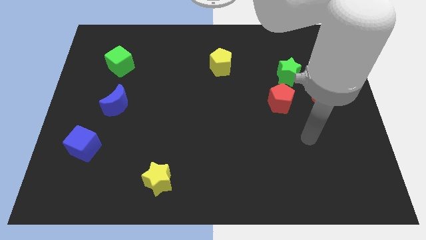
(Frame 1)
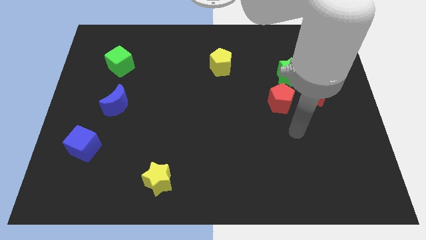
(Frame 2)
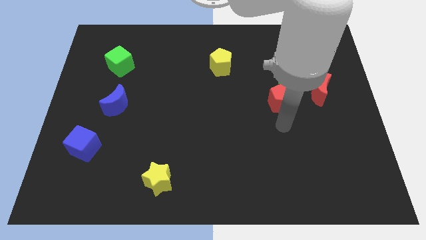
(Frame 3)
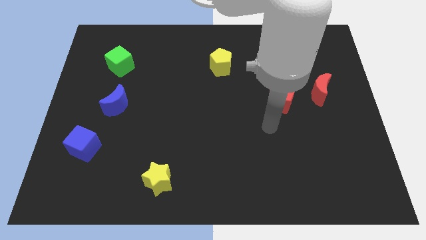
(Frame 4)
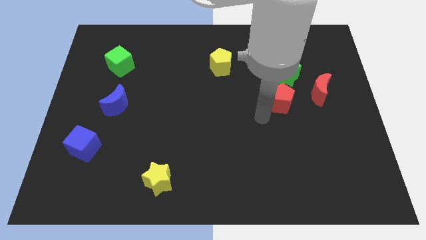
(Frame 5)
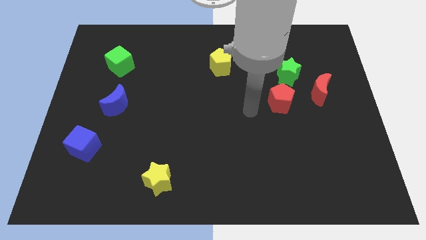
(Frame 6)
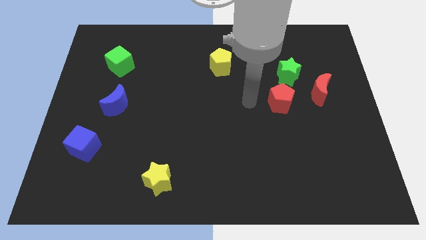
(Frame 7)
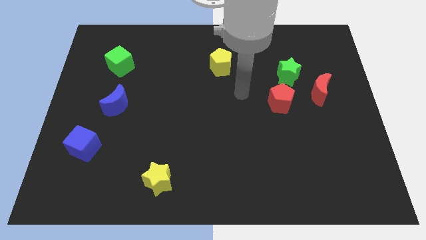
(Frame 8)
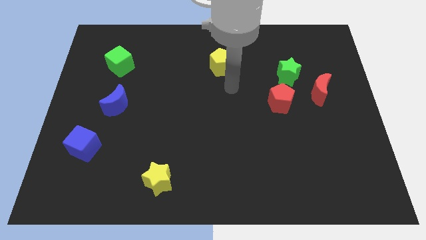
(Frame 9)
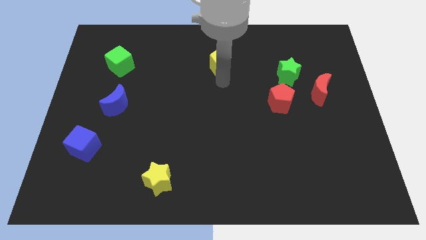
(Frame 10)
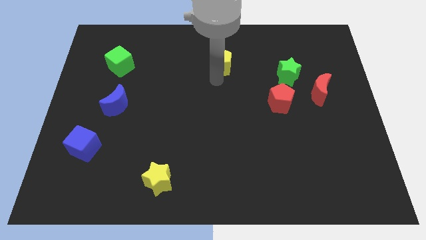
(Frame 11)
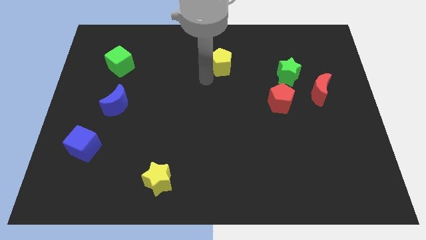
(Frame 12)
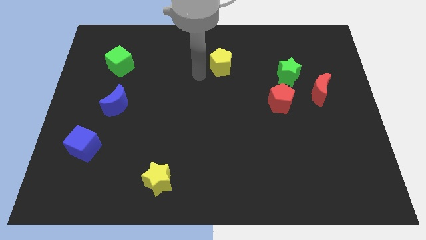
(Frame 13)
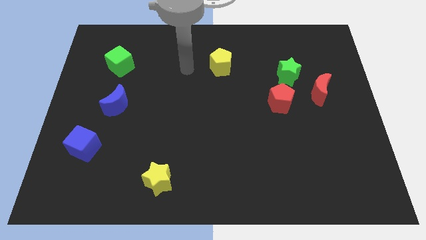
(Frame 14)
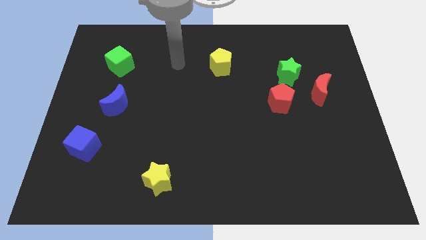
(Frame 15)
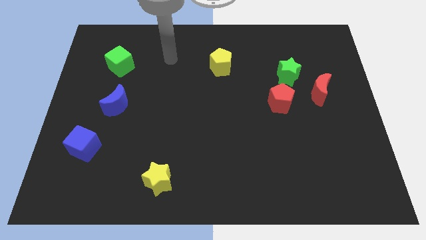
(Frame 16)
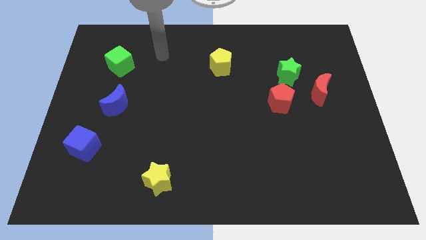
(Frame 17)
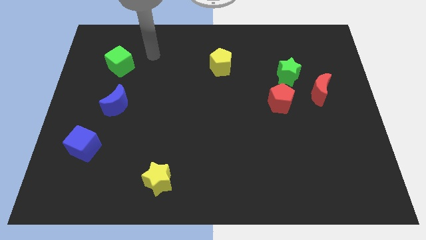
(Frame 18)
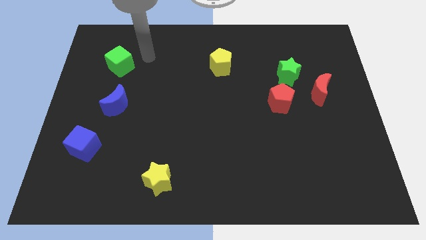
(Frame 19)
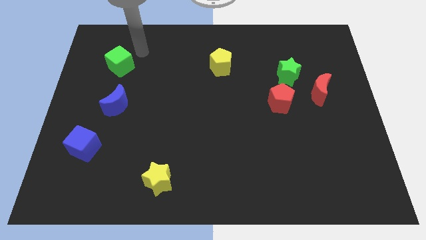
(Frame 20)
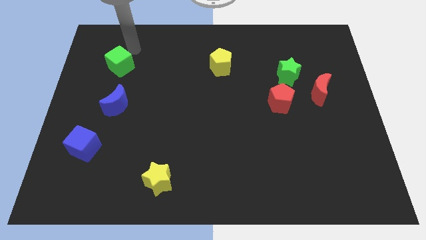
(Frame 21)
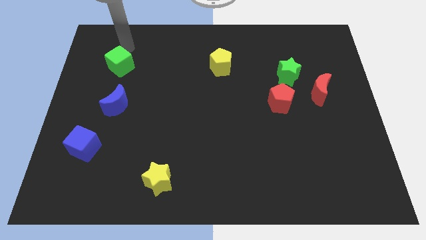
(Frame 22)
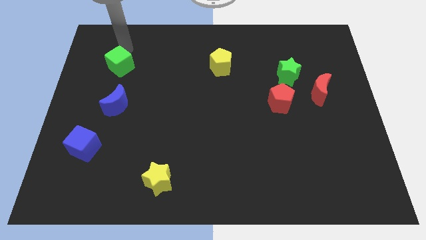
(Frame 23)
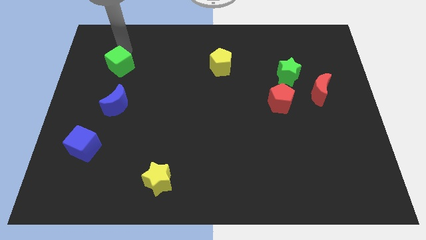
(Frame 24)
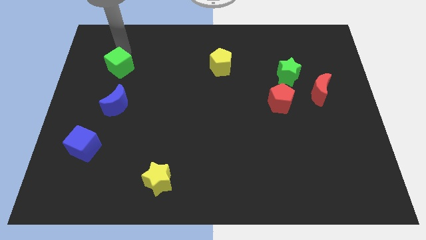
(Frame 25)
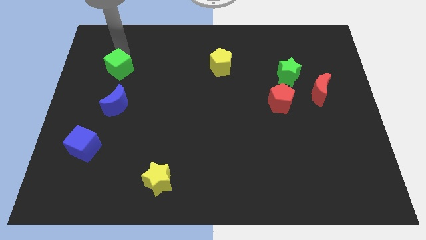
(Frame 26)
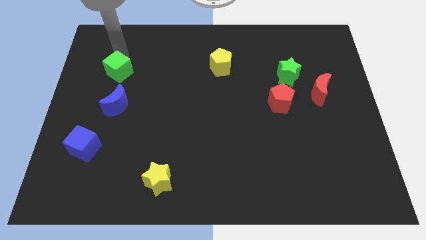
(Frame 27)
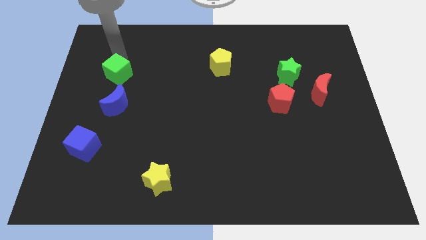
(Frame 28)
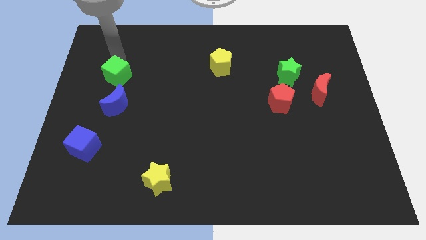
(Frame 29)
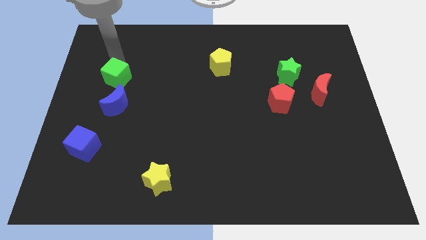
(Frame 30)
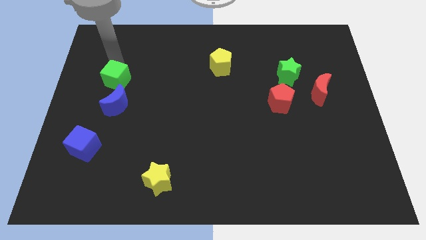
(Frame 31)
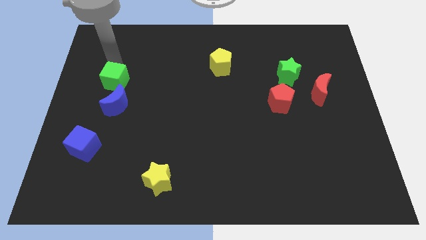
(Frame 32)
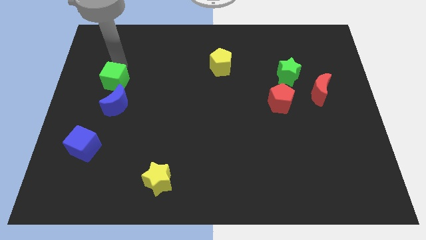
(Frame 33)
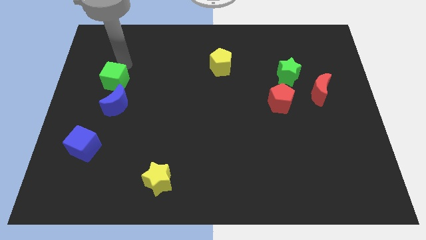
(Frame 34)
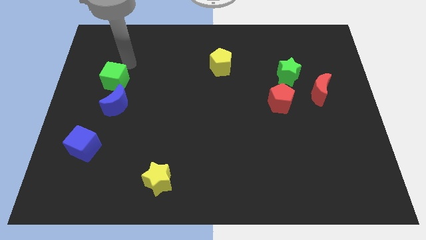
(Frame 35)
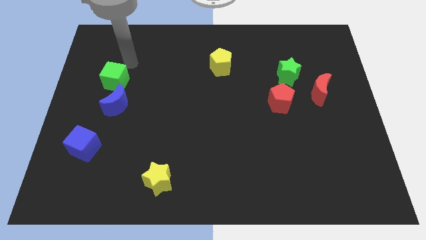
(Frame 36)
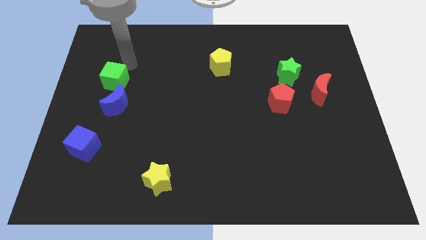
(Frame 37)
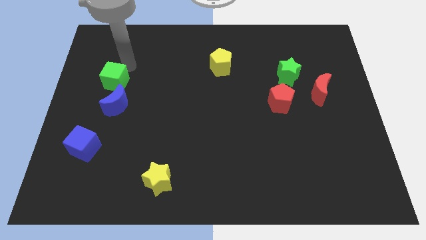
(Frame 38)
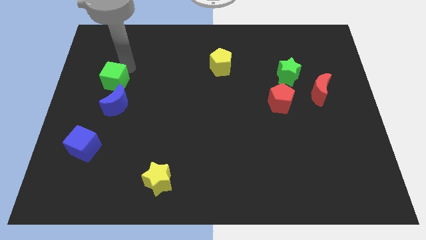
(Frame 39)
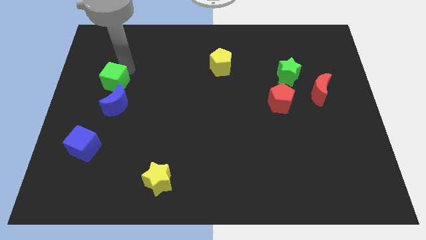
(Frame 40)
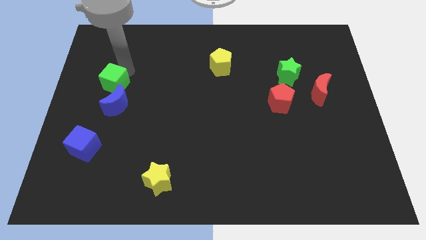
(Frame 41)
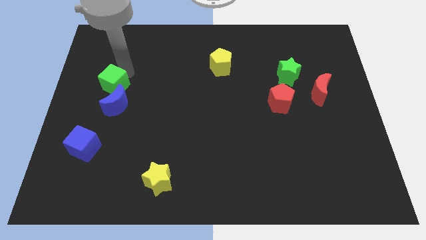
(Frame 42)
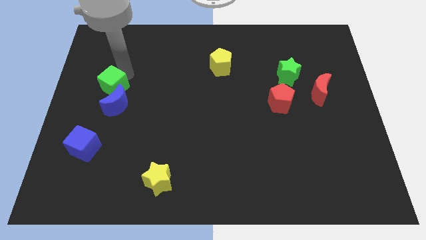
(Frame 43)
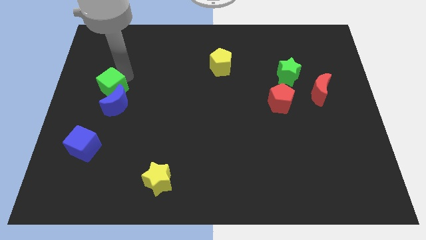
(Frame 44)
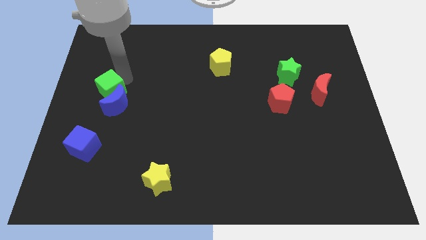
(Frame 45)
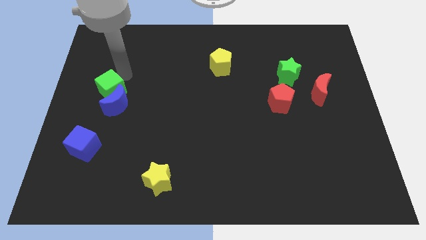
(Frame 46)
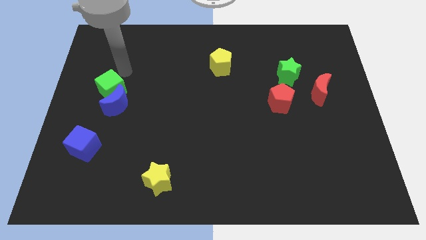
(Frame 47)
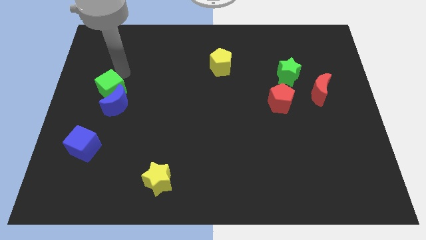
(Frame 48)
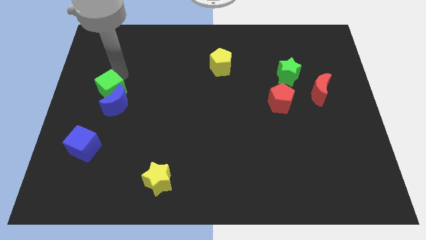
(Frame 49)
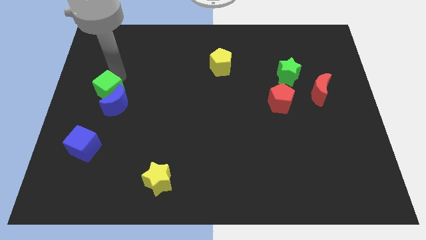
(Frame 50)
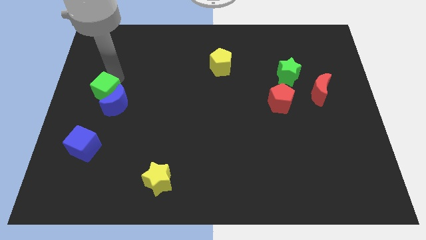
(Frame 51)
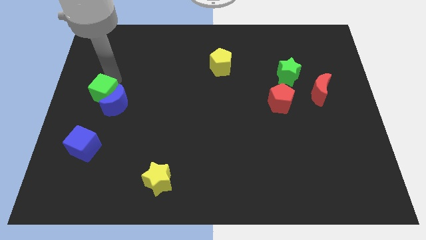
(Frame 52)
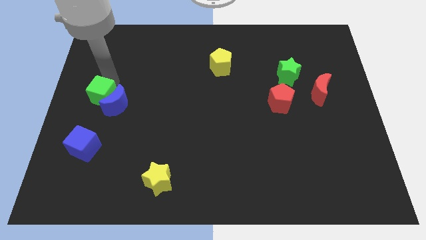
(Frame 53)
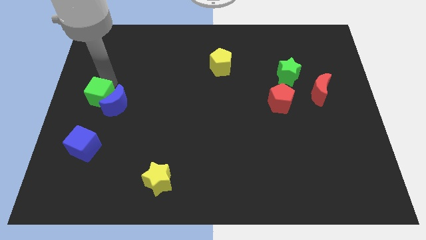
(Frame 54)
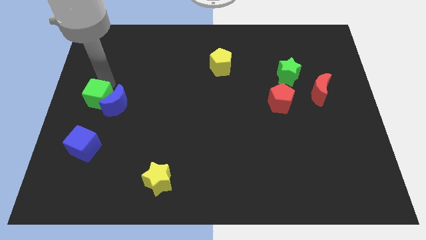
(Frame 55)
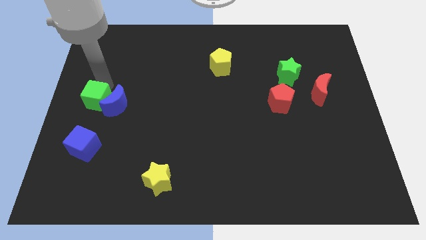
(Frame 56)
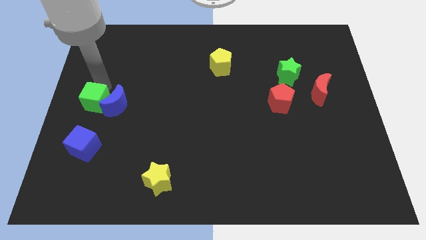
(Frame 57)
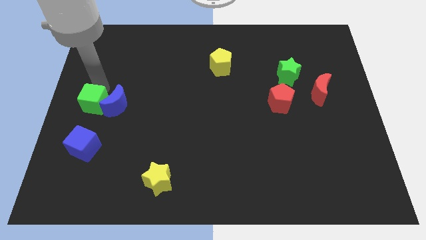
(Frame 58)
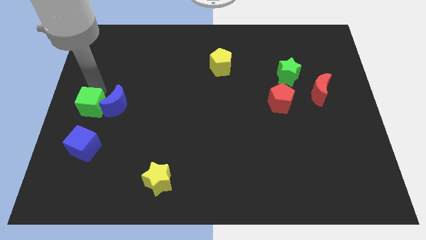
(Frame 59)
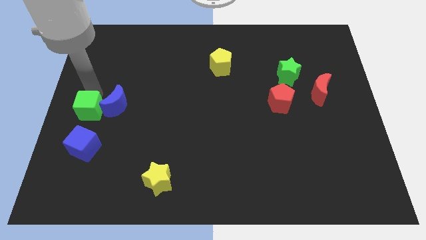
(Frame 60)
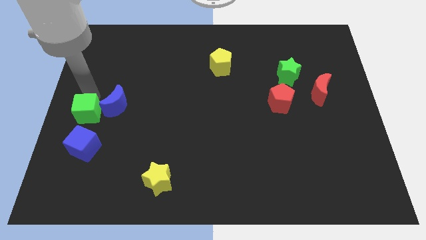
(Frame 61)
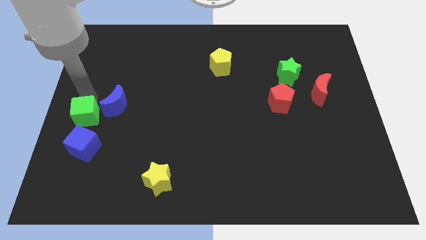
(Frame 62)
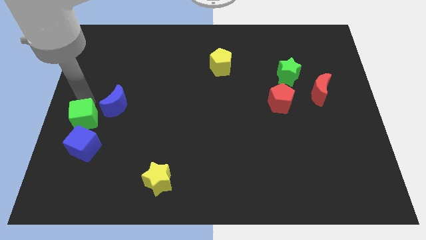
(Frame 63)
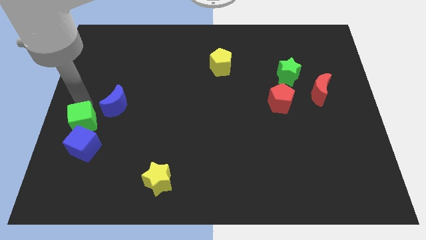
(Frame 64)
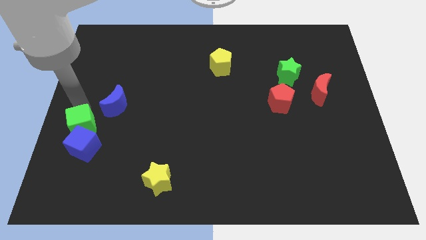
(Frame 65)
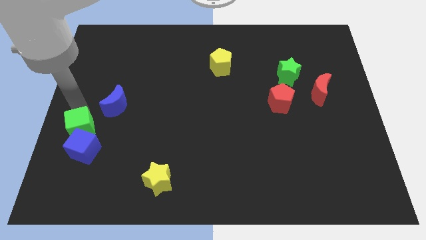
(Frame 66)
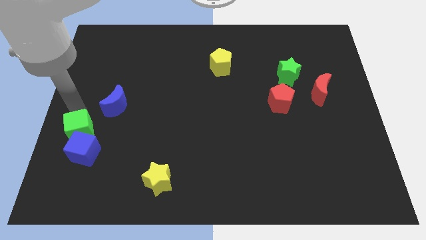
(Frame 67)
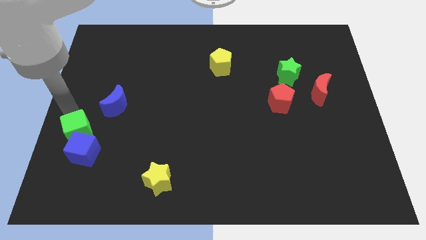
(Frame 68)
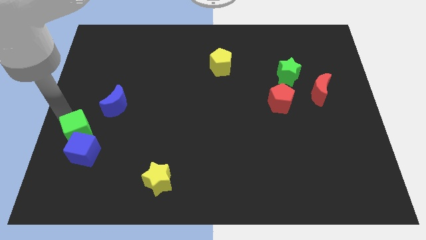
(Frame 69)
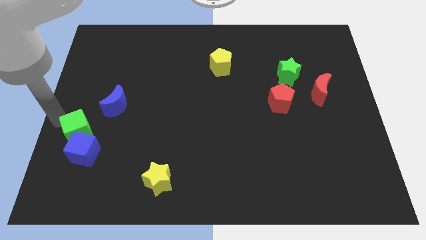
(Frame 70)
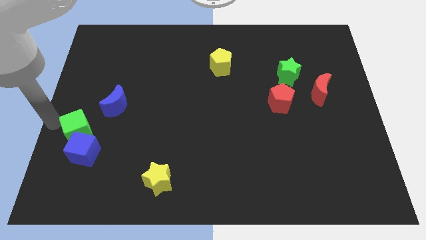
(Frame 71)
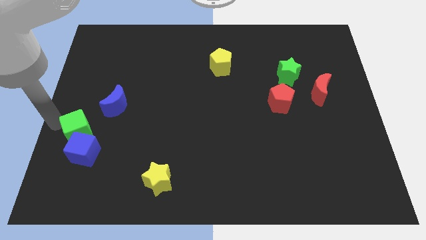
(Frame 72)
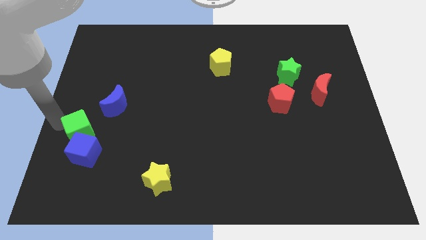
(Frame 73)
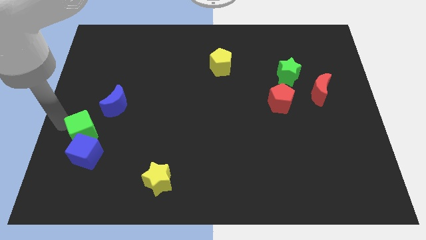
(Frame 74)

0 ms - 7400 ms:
push the green cube down

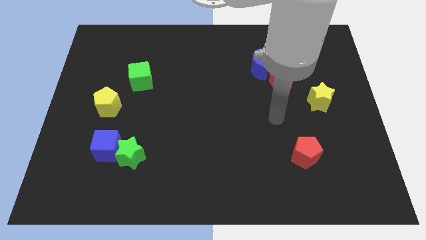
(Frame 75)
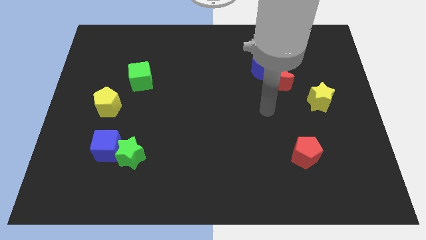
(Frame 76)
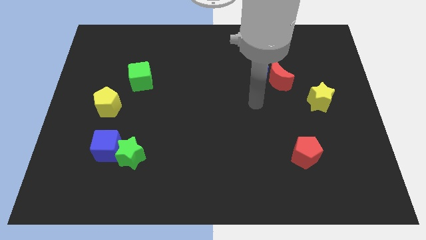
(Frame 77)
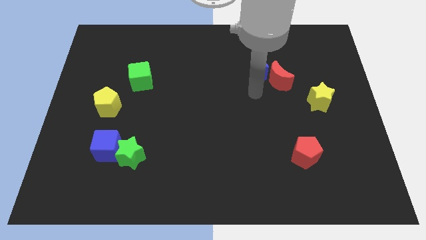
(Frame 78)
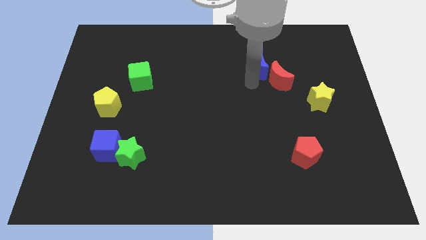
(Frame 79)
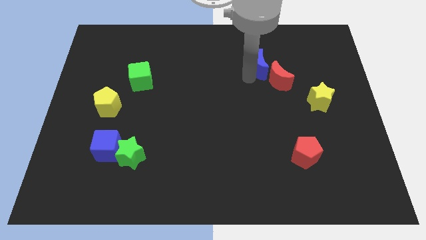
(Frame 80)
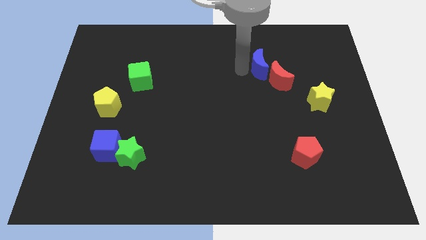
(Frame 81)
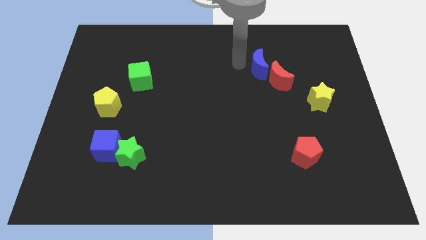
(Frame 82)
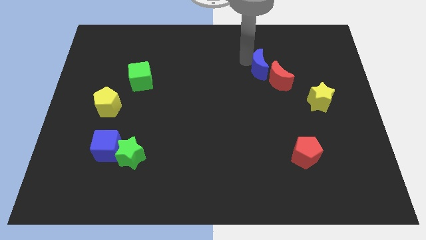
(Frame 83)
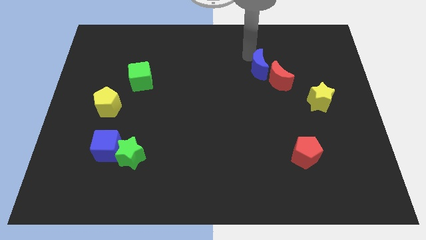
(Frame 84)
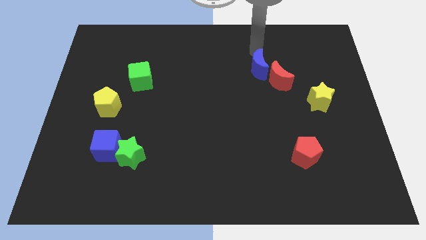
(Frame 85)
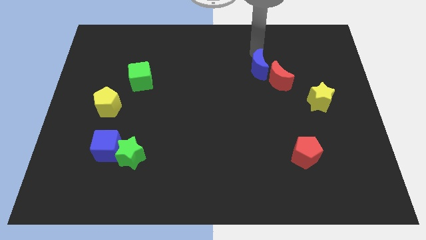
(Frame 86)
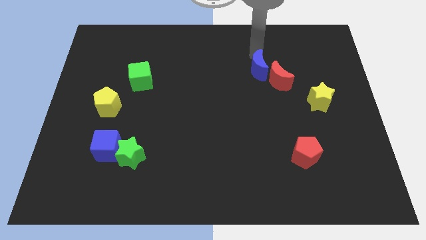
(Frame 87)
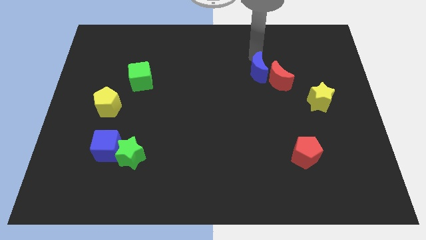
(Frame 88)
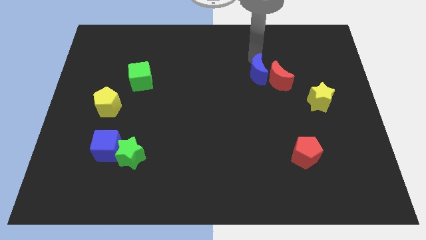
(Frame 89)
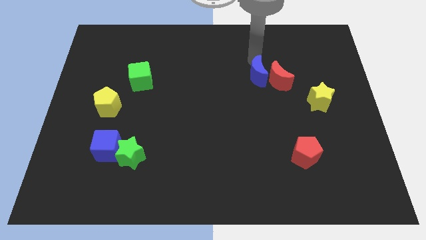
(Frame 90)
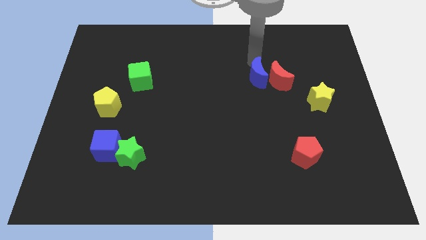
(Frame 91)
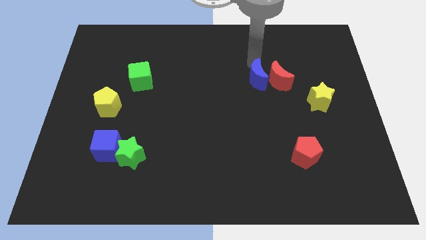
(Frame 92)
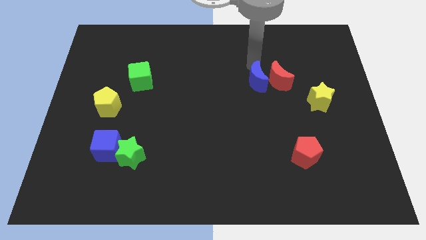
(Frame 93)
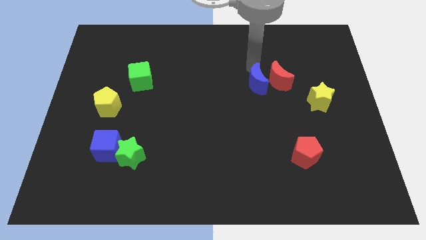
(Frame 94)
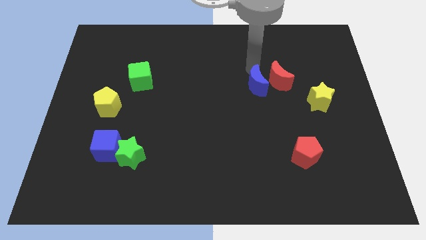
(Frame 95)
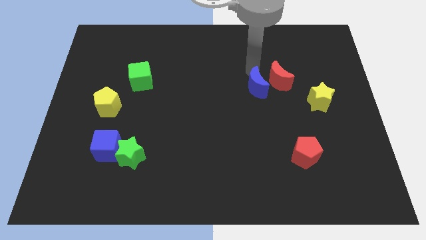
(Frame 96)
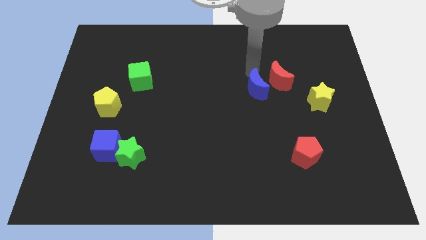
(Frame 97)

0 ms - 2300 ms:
slightly slide the blue moon down
